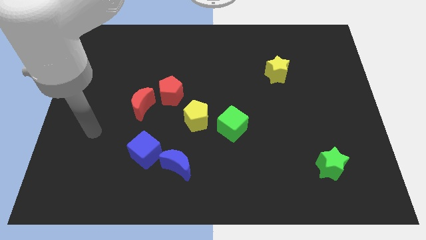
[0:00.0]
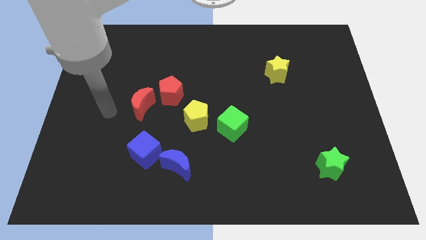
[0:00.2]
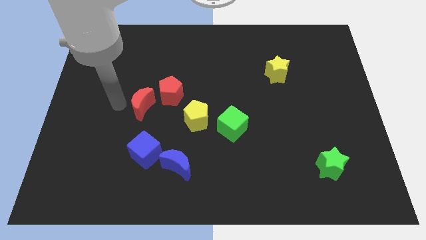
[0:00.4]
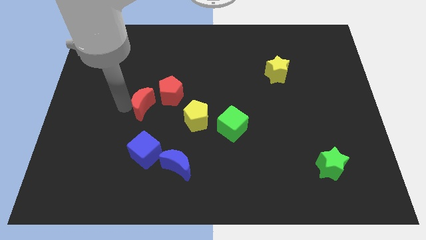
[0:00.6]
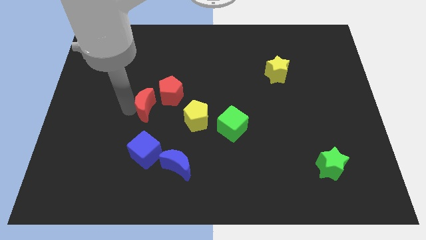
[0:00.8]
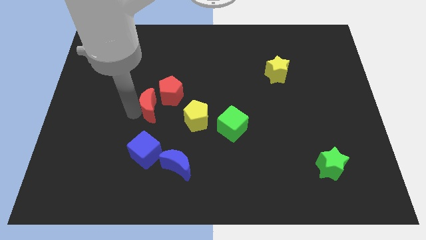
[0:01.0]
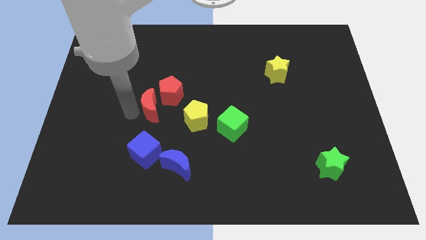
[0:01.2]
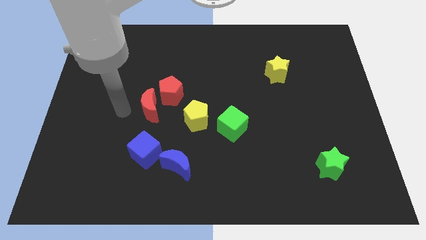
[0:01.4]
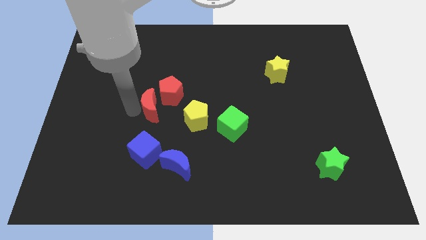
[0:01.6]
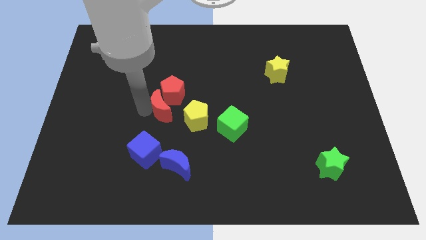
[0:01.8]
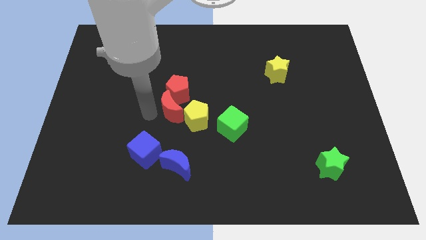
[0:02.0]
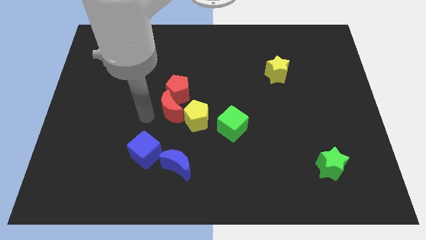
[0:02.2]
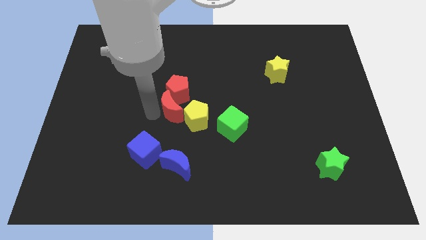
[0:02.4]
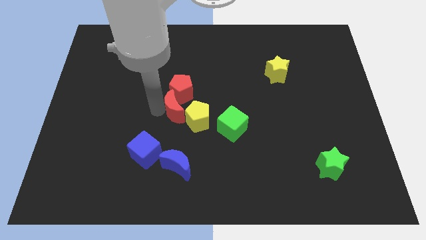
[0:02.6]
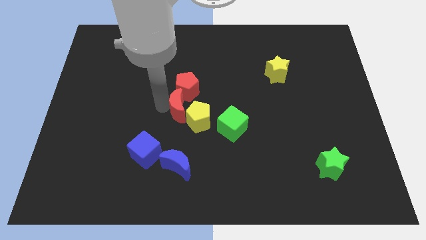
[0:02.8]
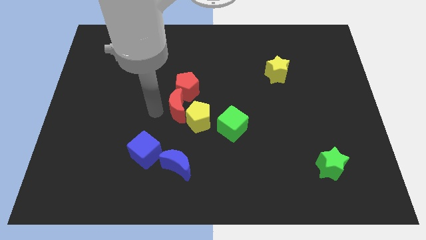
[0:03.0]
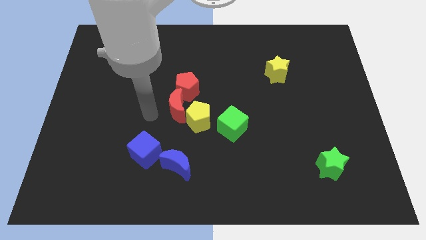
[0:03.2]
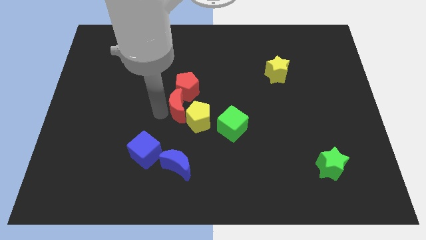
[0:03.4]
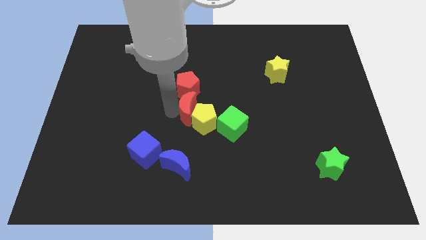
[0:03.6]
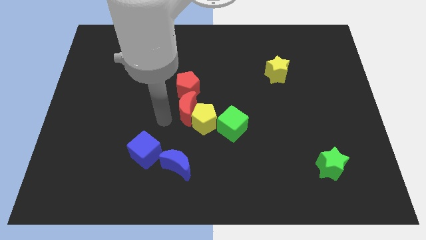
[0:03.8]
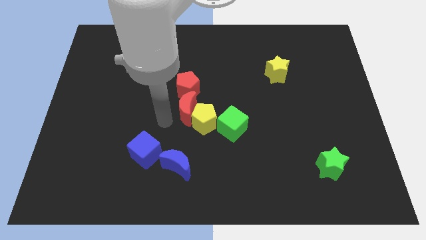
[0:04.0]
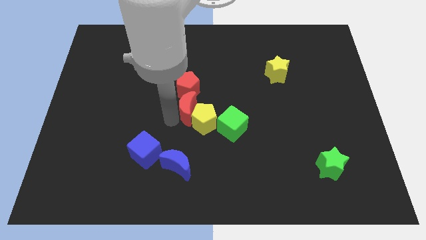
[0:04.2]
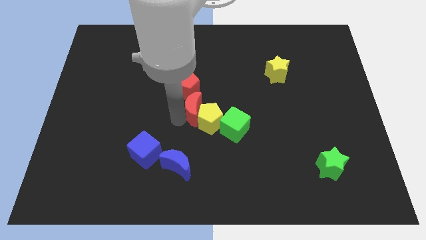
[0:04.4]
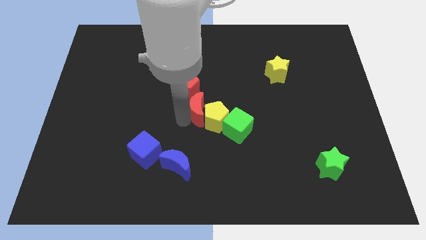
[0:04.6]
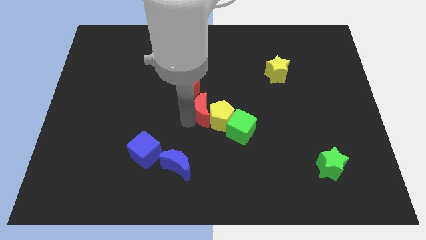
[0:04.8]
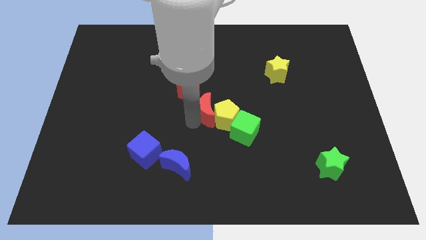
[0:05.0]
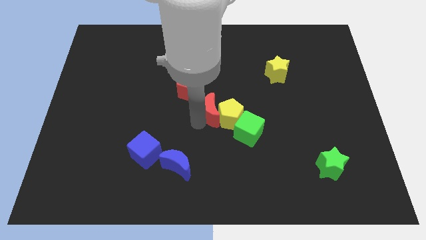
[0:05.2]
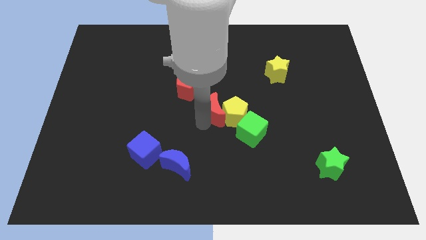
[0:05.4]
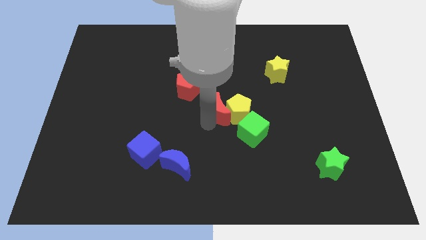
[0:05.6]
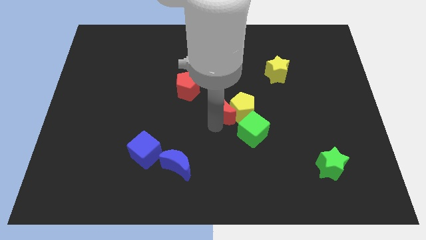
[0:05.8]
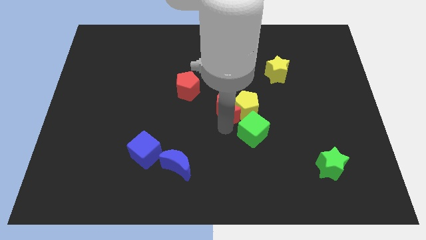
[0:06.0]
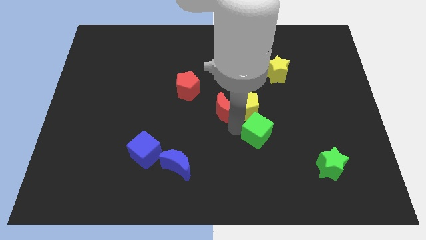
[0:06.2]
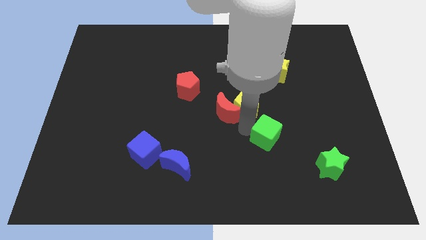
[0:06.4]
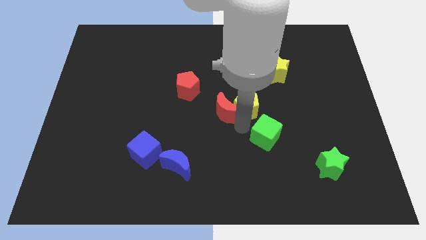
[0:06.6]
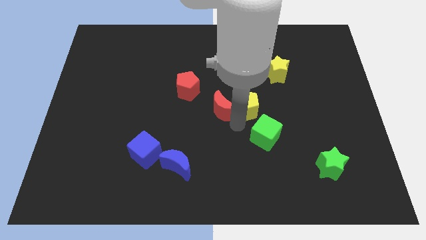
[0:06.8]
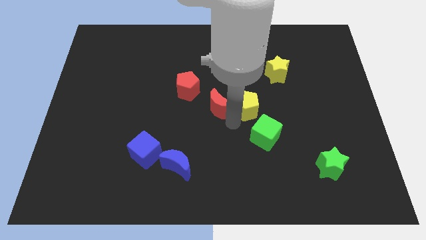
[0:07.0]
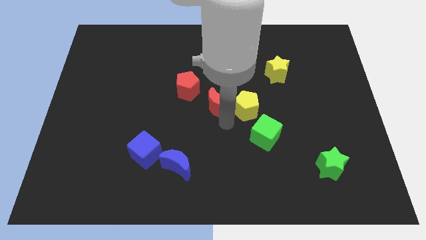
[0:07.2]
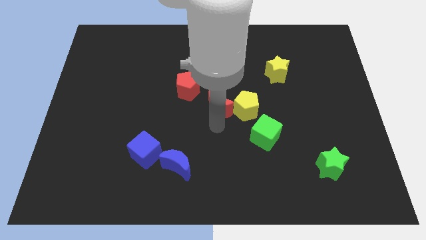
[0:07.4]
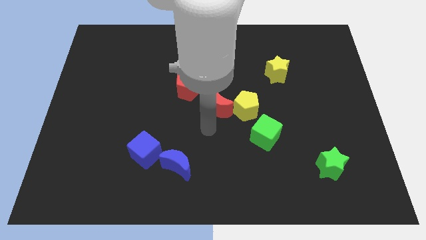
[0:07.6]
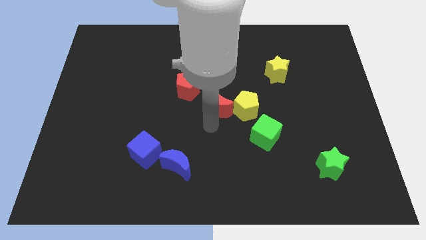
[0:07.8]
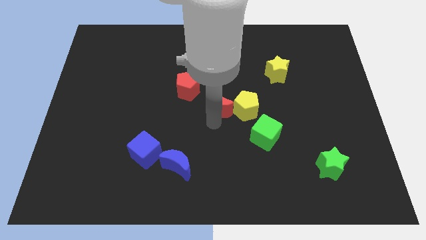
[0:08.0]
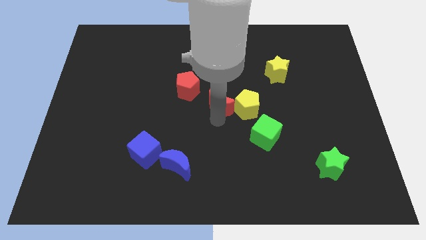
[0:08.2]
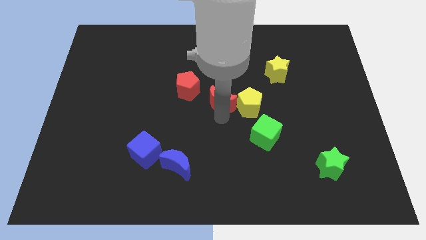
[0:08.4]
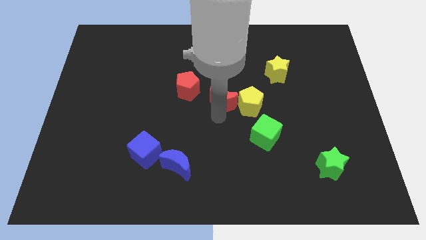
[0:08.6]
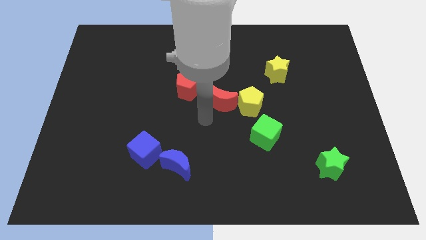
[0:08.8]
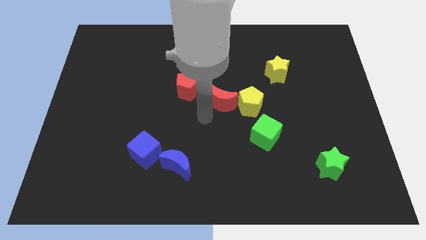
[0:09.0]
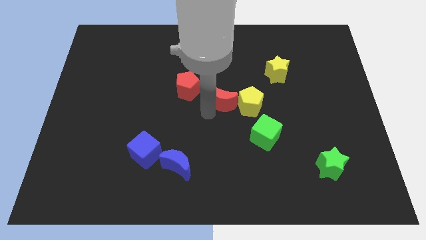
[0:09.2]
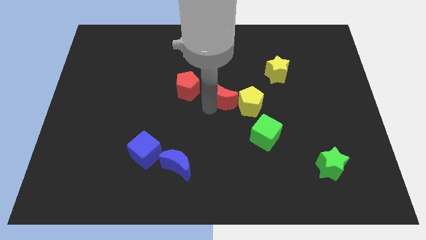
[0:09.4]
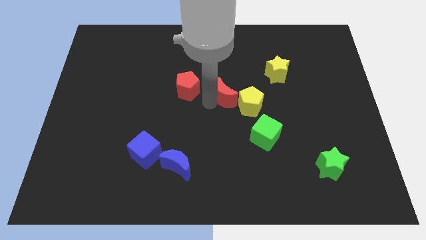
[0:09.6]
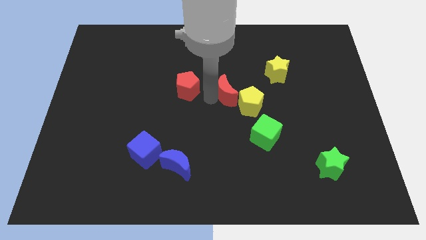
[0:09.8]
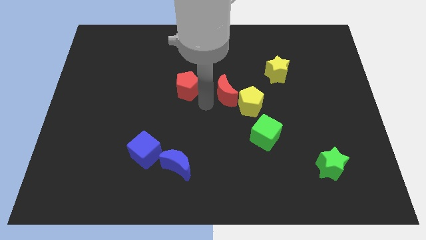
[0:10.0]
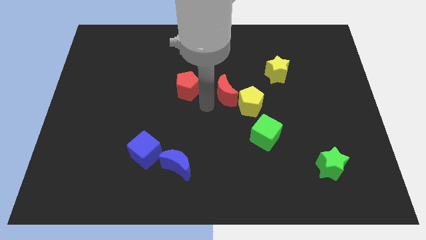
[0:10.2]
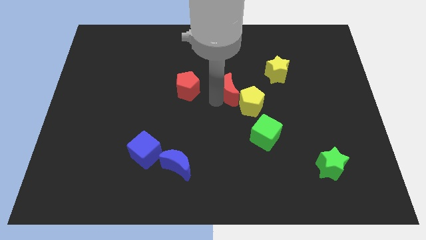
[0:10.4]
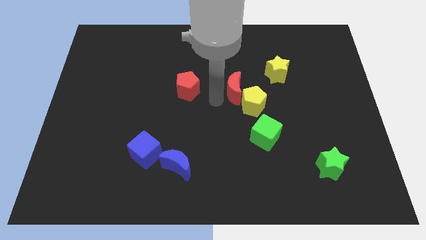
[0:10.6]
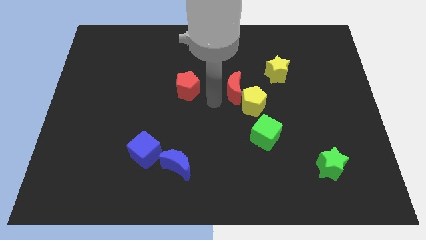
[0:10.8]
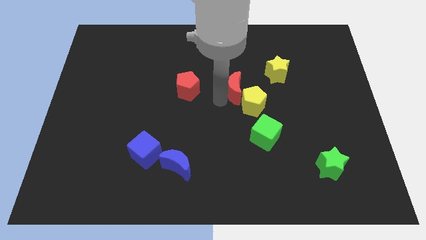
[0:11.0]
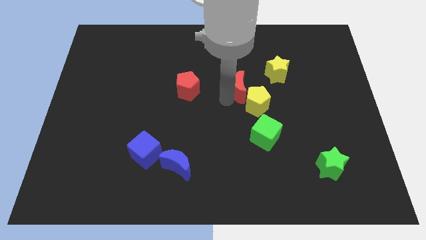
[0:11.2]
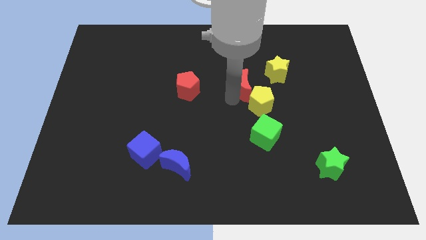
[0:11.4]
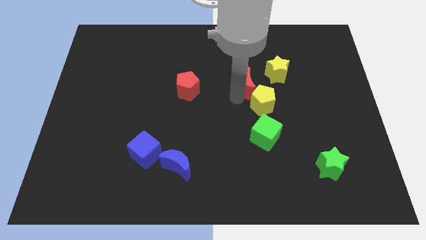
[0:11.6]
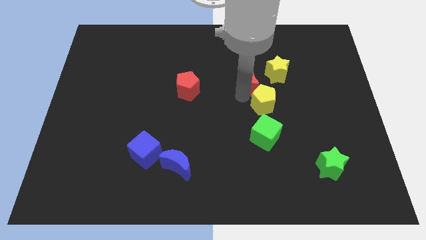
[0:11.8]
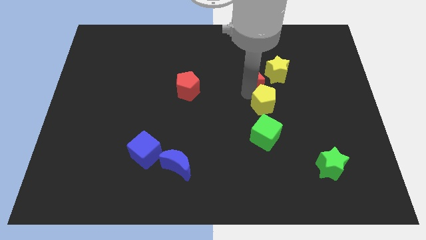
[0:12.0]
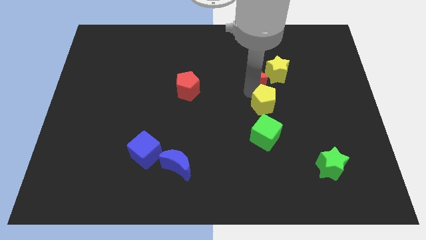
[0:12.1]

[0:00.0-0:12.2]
slide the red moon close to the yellow star
